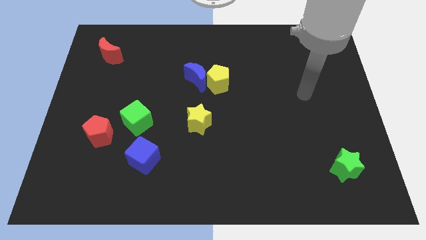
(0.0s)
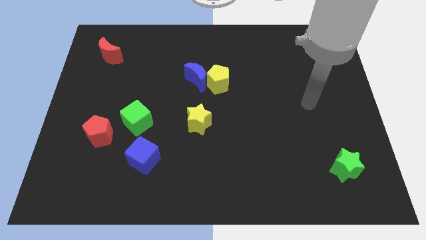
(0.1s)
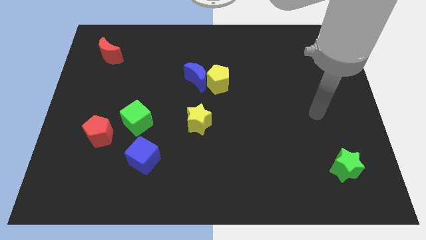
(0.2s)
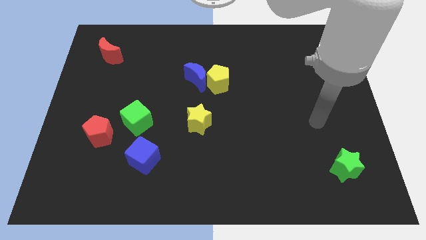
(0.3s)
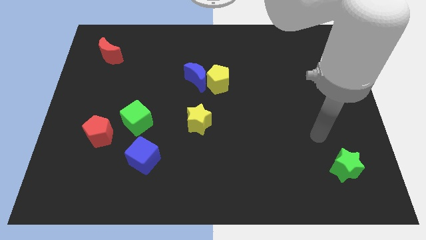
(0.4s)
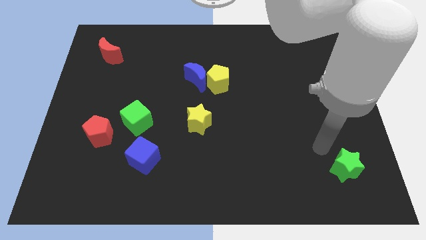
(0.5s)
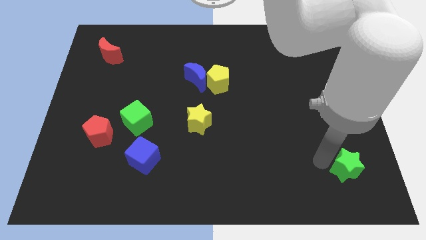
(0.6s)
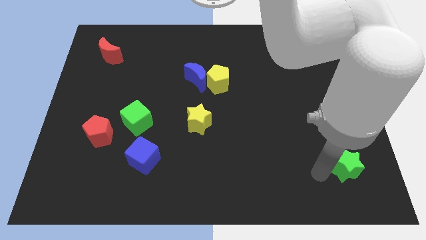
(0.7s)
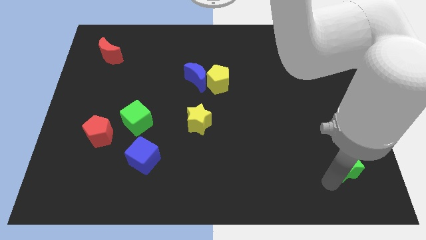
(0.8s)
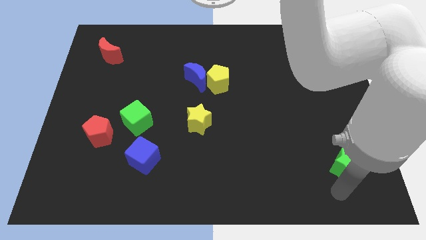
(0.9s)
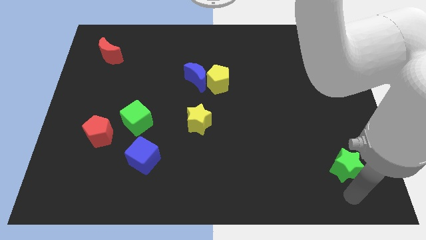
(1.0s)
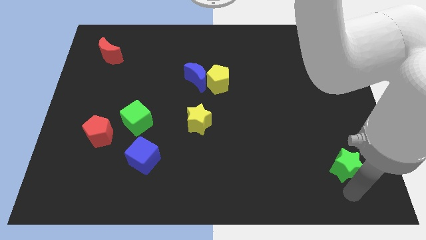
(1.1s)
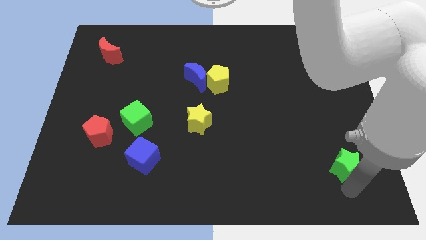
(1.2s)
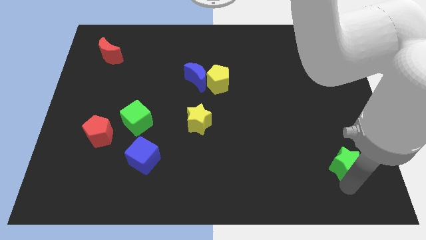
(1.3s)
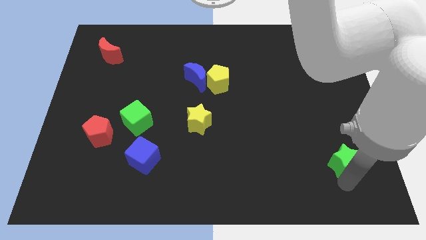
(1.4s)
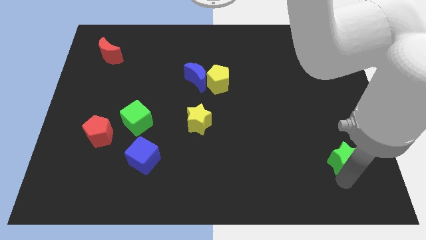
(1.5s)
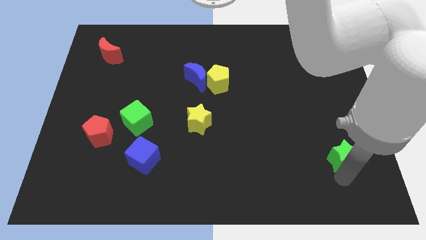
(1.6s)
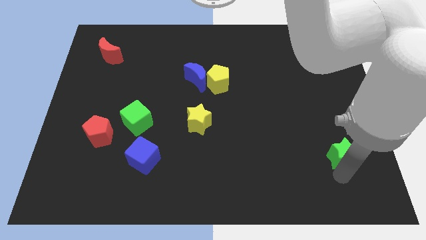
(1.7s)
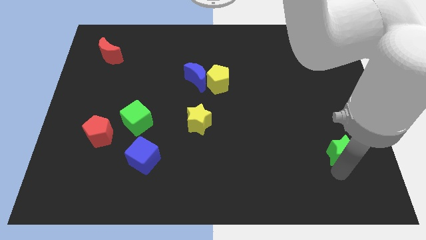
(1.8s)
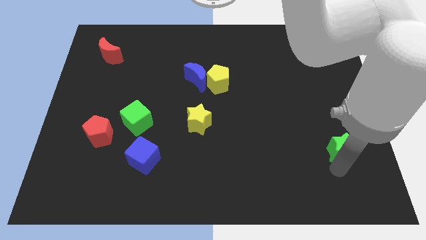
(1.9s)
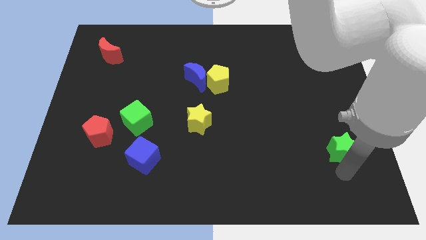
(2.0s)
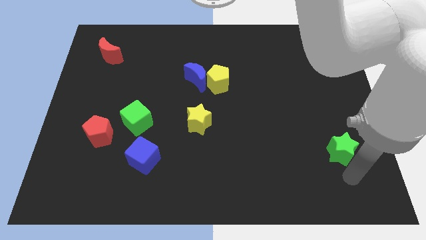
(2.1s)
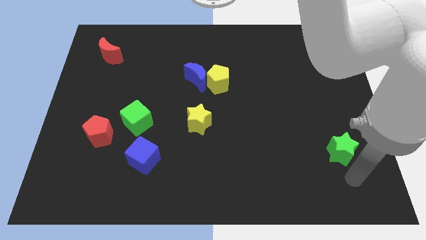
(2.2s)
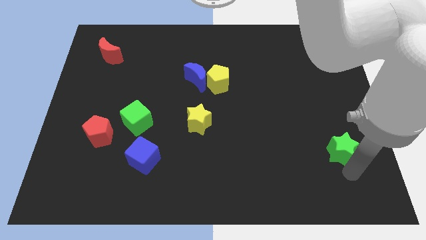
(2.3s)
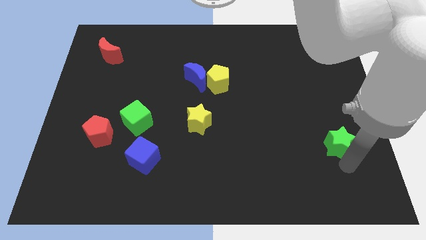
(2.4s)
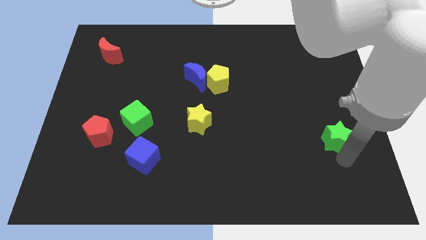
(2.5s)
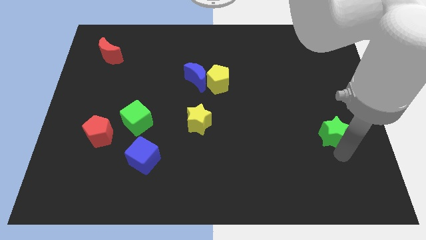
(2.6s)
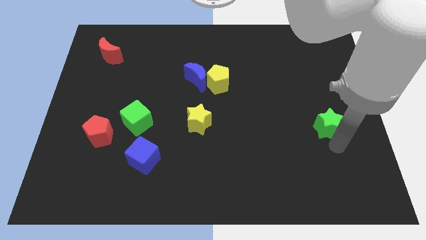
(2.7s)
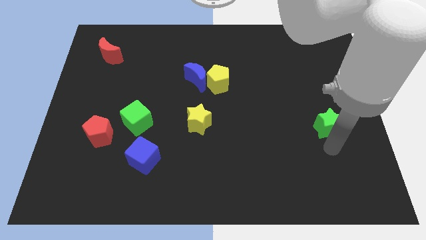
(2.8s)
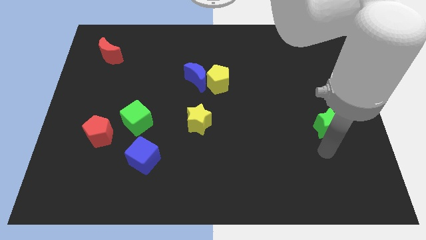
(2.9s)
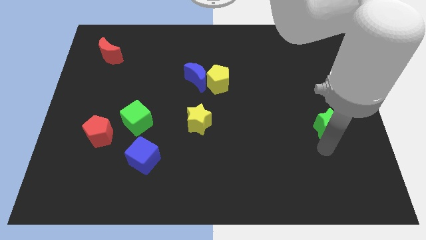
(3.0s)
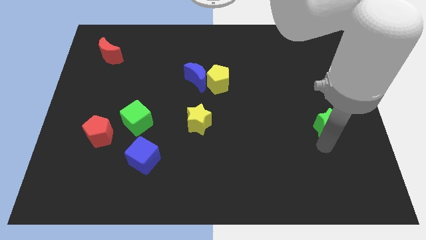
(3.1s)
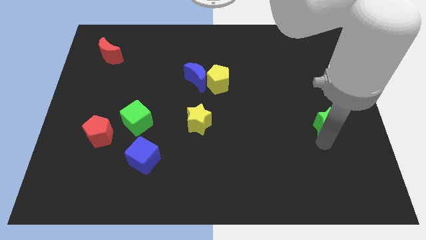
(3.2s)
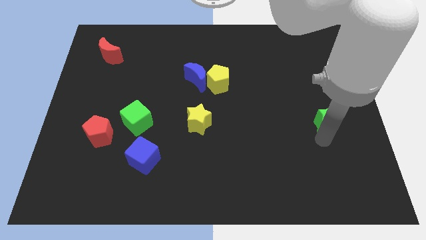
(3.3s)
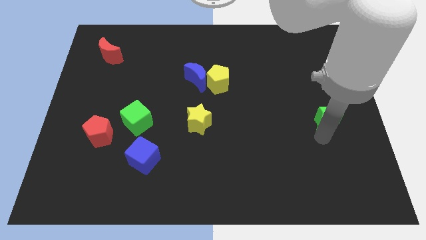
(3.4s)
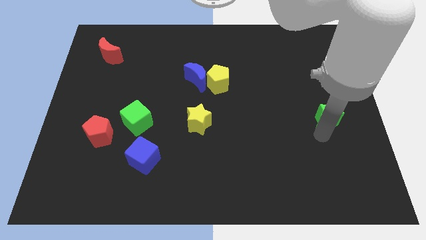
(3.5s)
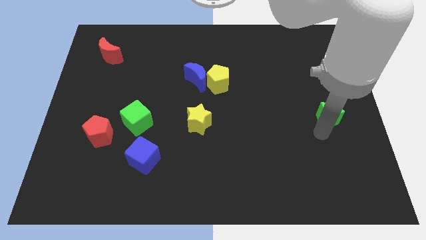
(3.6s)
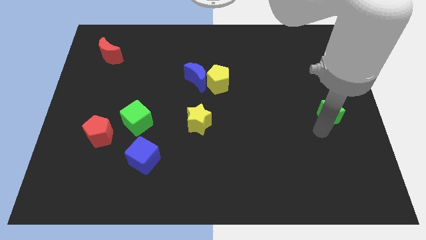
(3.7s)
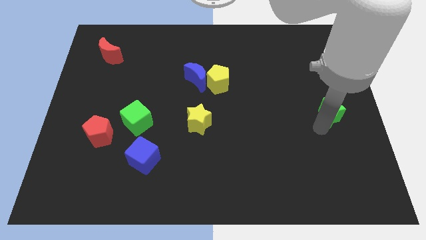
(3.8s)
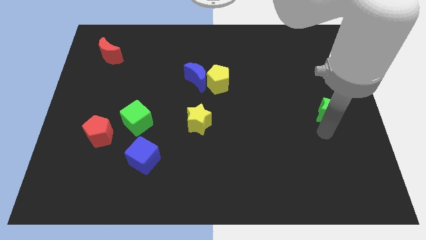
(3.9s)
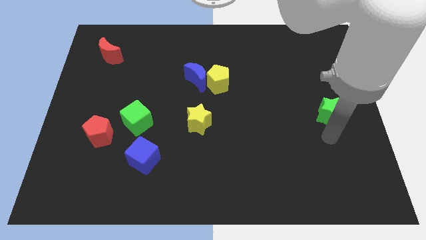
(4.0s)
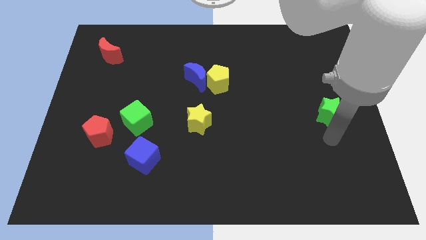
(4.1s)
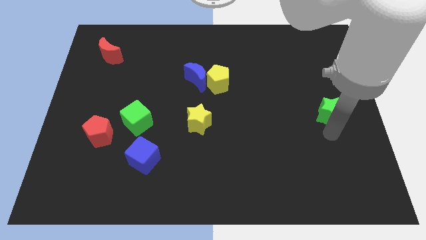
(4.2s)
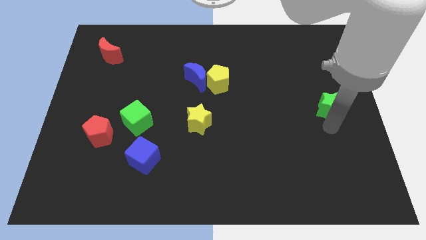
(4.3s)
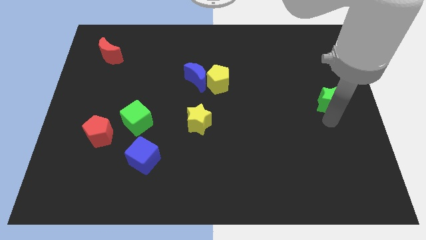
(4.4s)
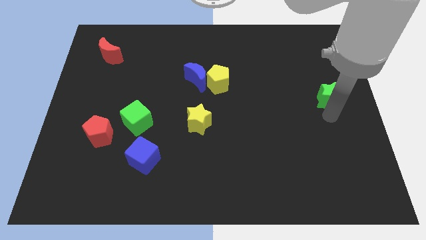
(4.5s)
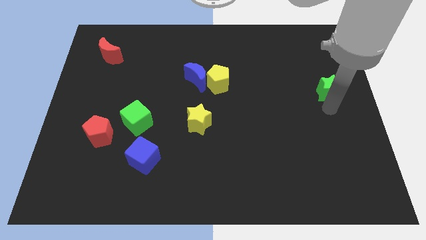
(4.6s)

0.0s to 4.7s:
move the green star upwards

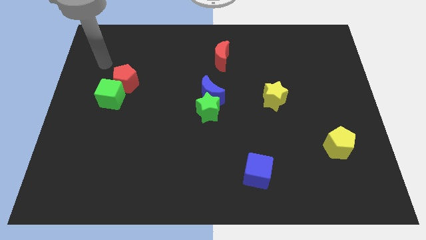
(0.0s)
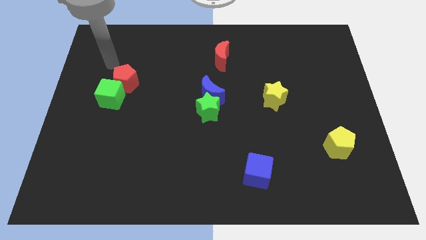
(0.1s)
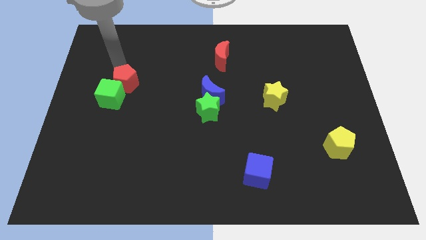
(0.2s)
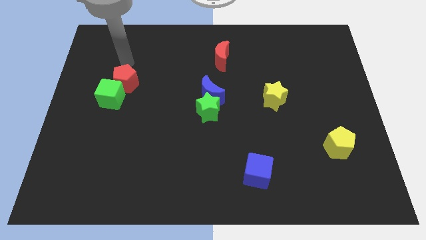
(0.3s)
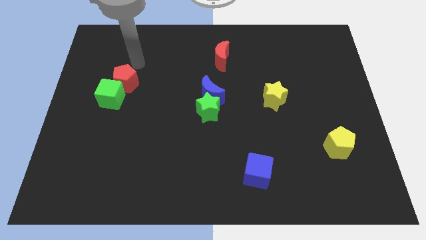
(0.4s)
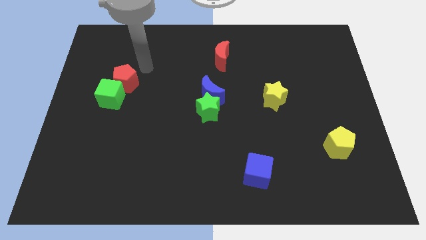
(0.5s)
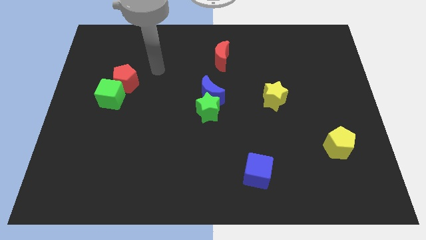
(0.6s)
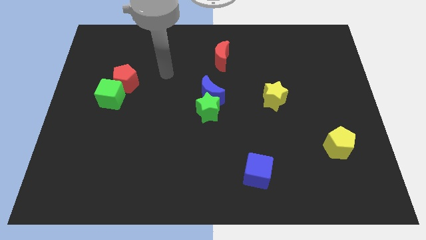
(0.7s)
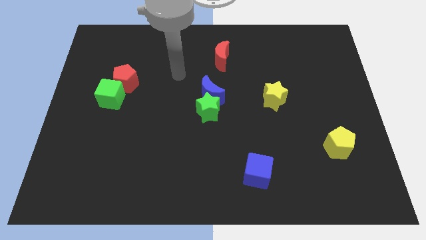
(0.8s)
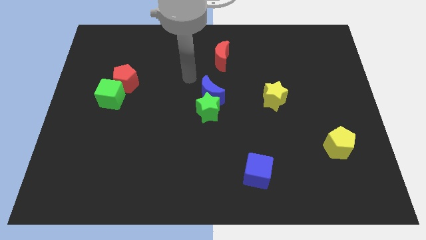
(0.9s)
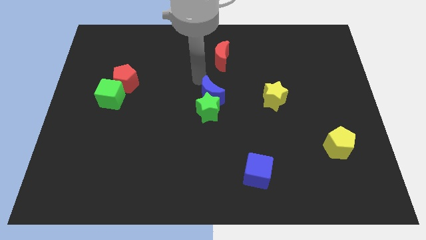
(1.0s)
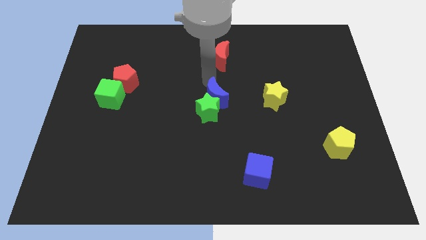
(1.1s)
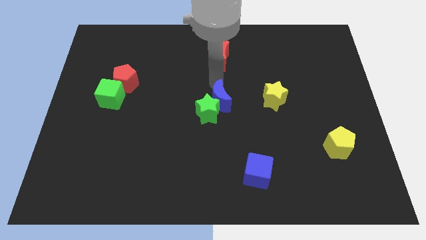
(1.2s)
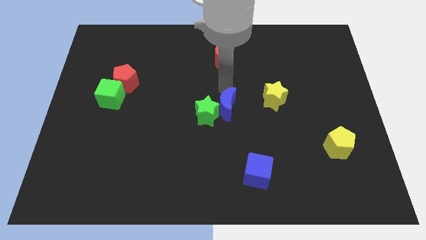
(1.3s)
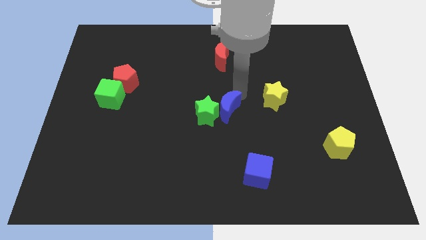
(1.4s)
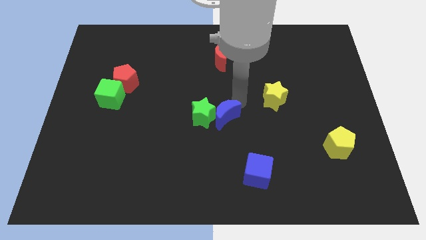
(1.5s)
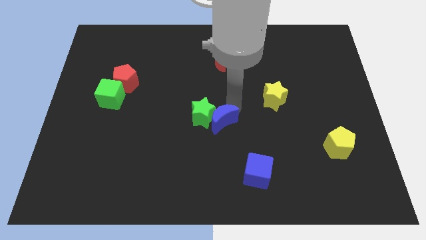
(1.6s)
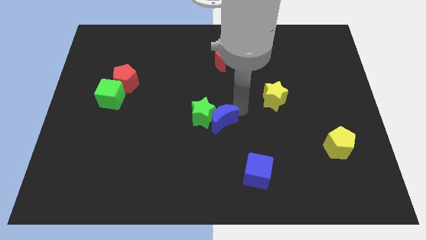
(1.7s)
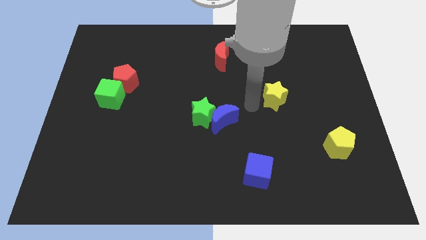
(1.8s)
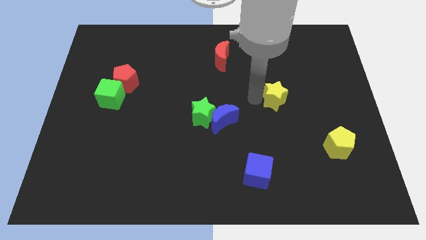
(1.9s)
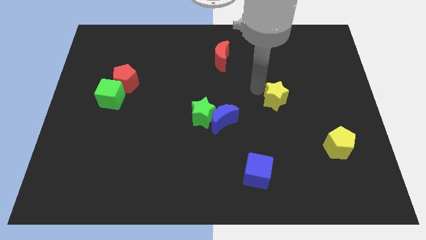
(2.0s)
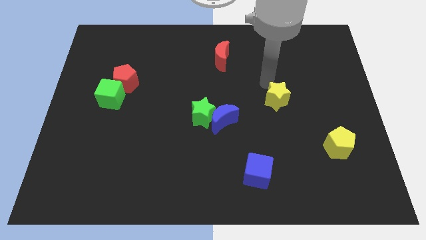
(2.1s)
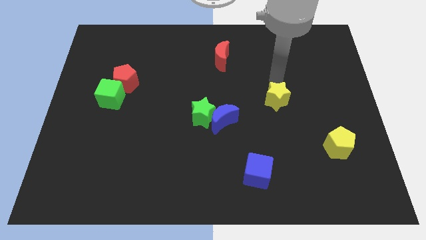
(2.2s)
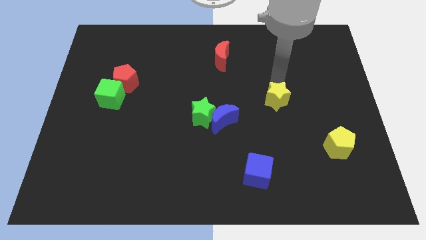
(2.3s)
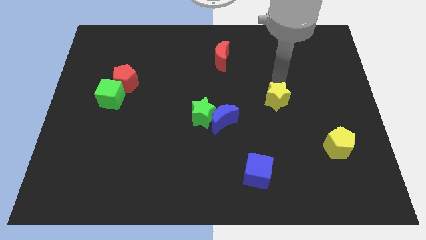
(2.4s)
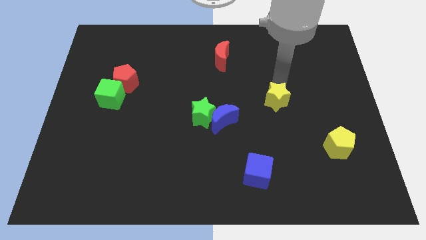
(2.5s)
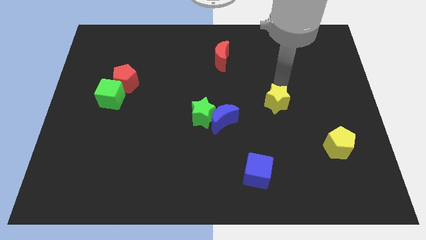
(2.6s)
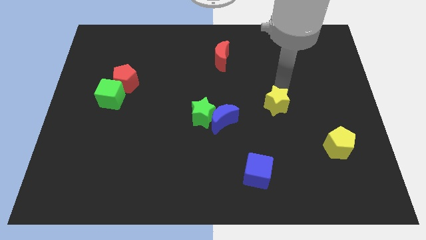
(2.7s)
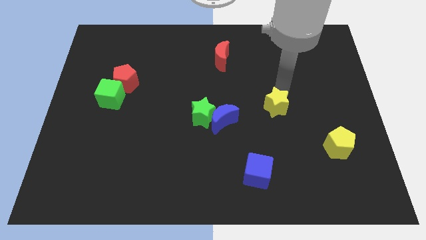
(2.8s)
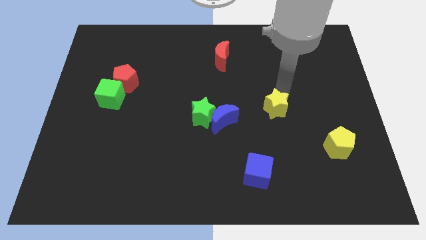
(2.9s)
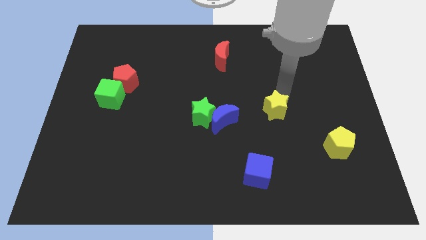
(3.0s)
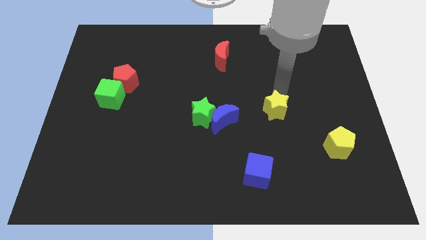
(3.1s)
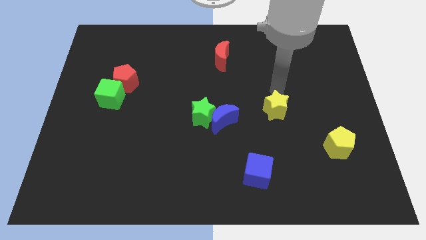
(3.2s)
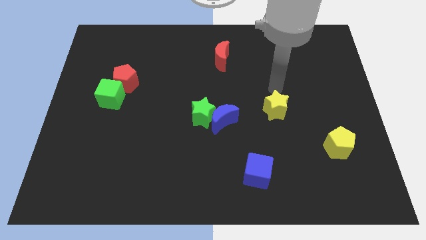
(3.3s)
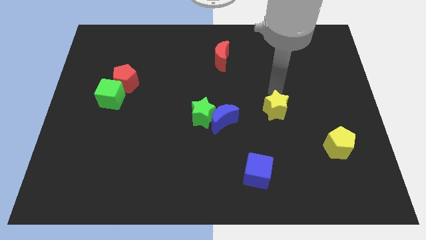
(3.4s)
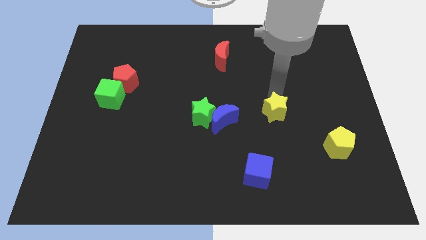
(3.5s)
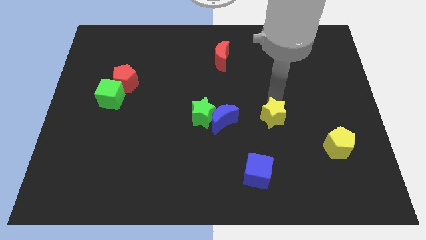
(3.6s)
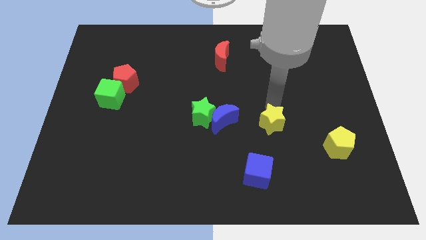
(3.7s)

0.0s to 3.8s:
slide the yellow star slightly down
